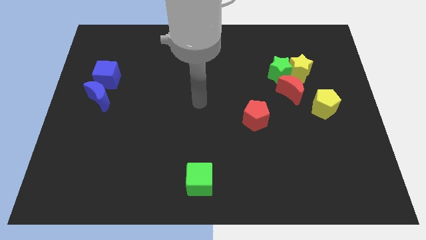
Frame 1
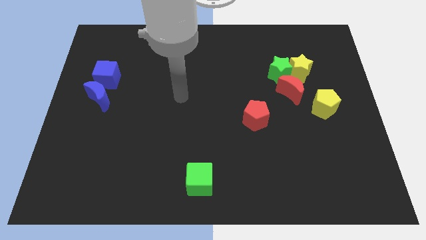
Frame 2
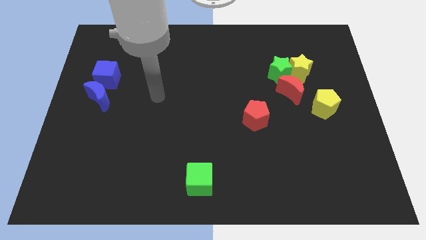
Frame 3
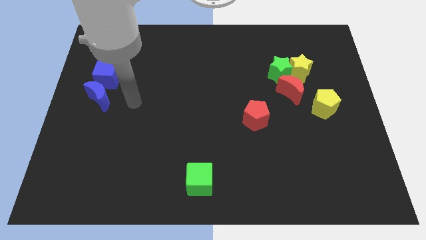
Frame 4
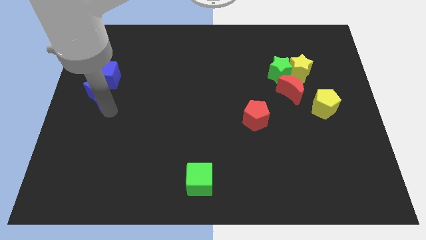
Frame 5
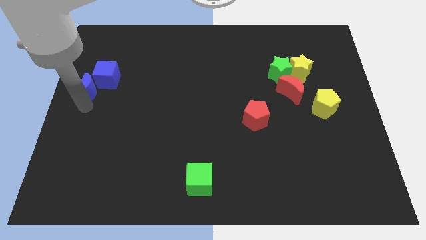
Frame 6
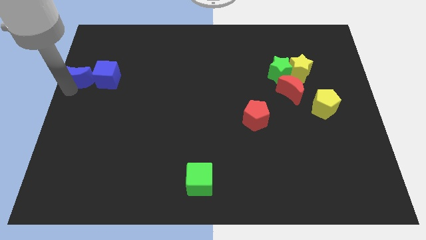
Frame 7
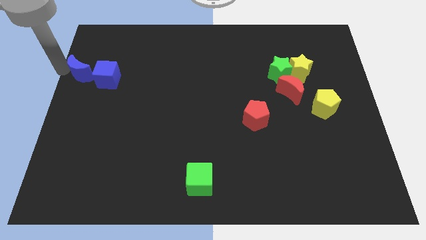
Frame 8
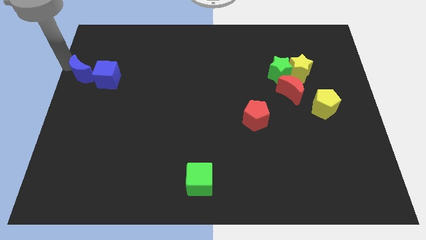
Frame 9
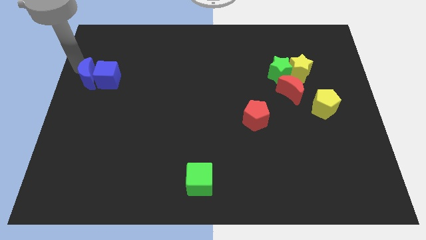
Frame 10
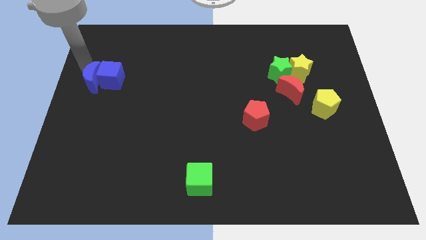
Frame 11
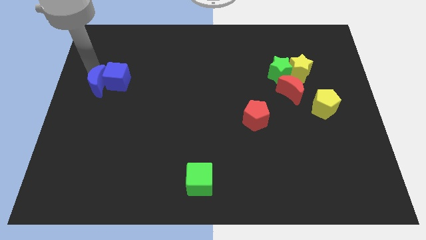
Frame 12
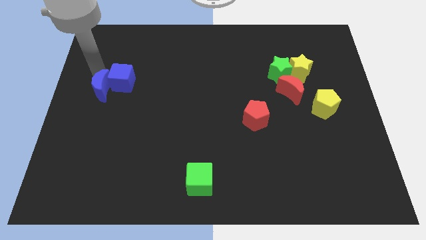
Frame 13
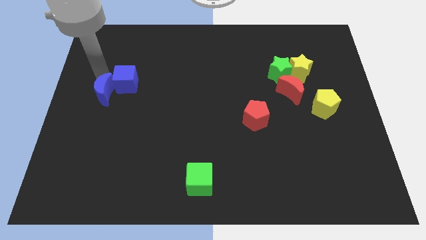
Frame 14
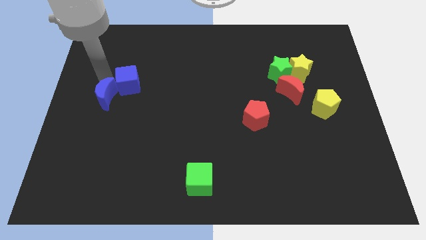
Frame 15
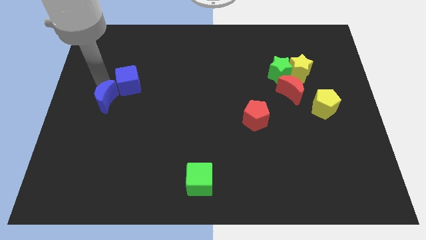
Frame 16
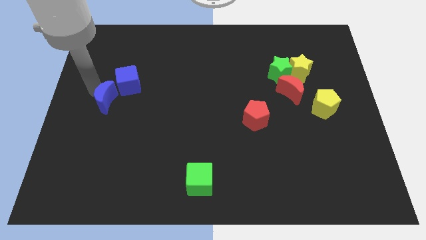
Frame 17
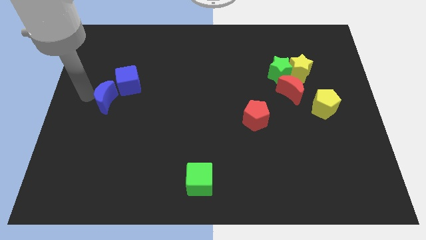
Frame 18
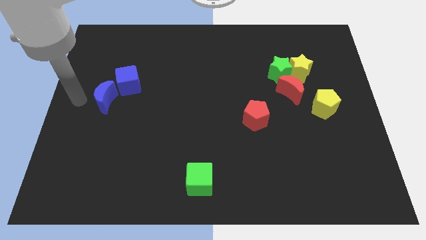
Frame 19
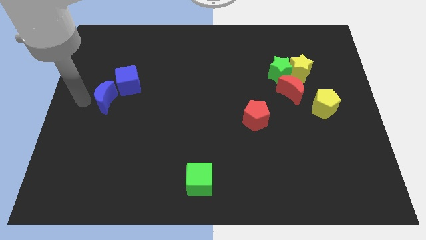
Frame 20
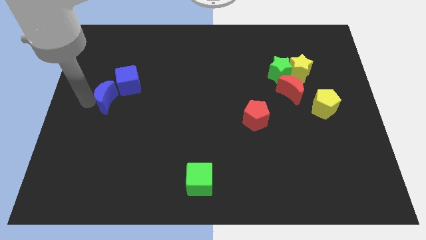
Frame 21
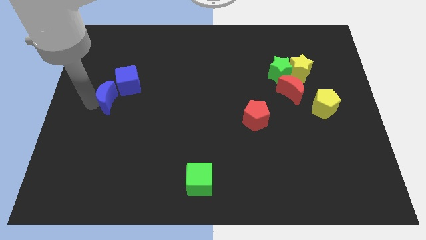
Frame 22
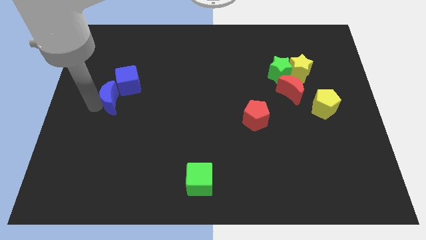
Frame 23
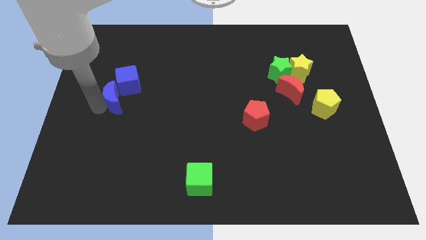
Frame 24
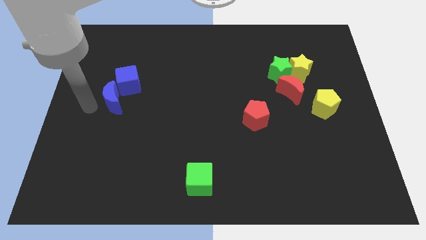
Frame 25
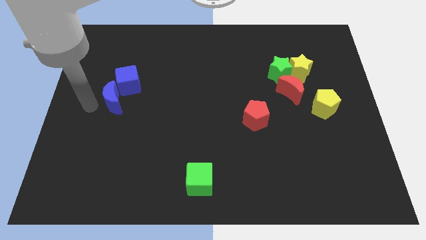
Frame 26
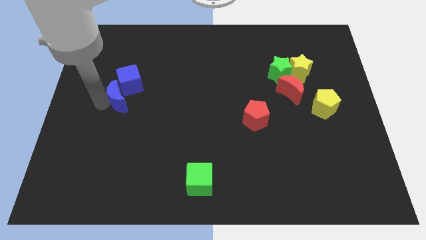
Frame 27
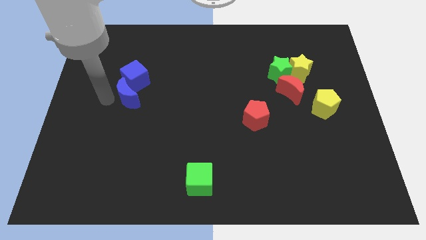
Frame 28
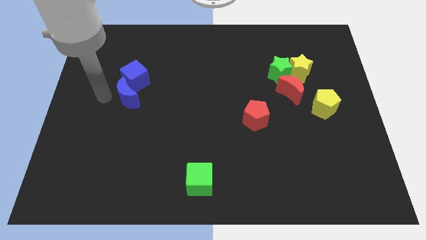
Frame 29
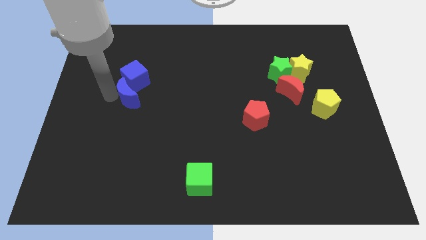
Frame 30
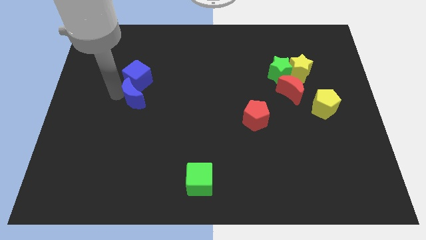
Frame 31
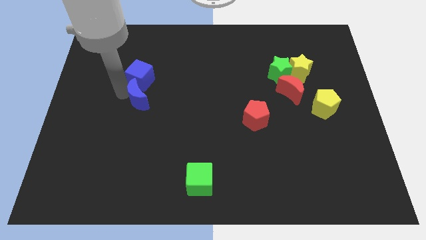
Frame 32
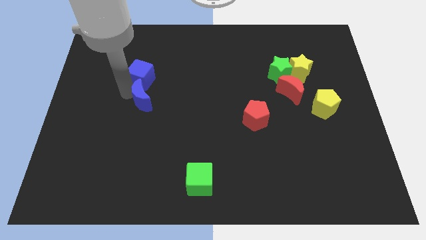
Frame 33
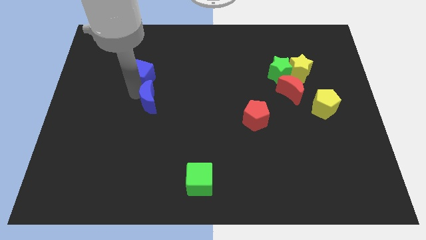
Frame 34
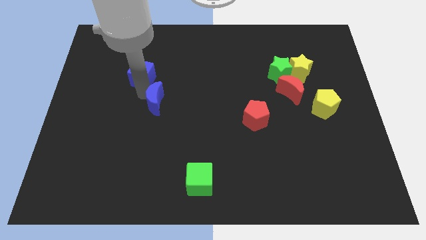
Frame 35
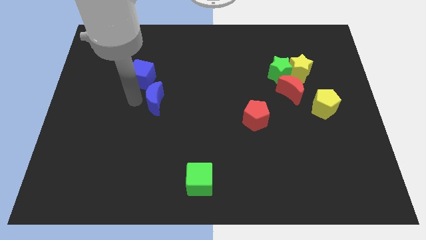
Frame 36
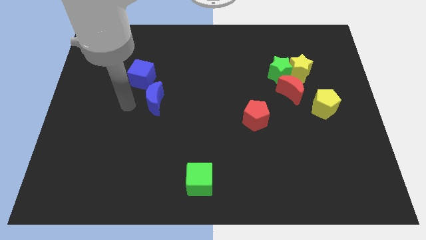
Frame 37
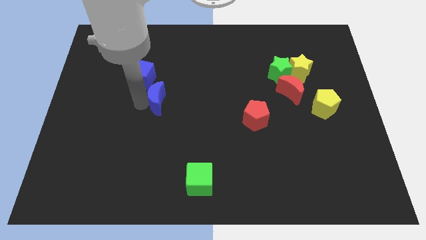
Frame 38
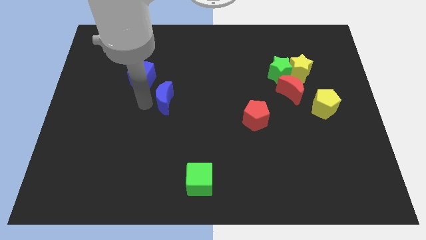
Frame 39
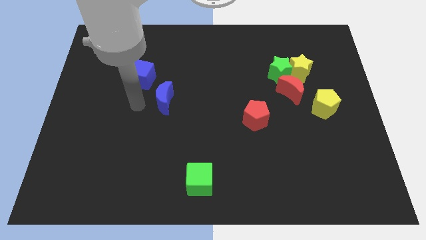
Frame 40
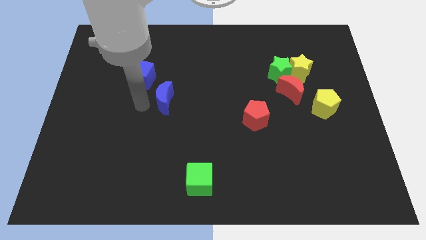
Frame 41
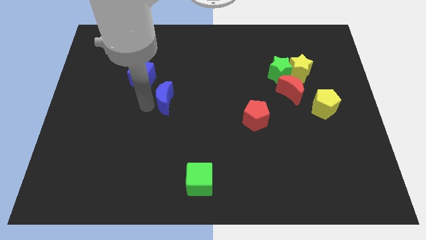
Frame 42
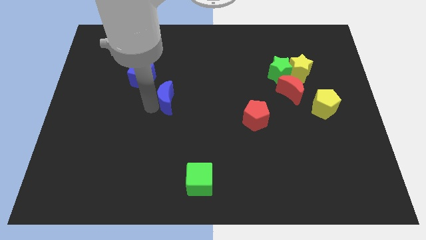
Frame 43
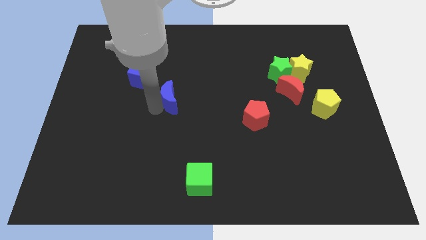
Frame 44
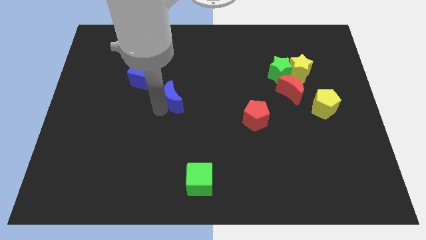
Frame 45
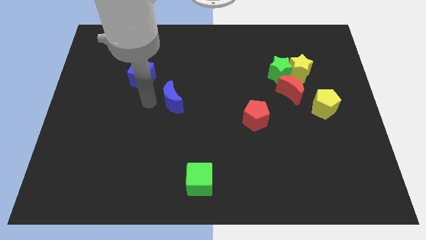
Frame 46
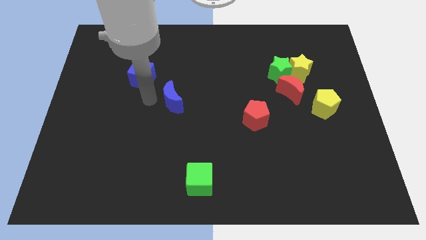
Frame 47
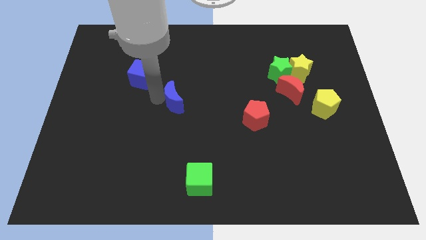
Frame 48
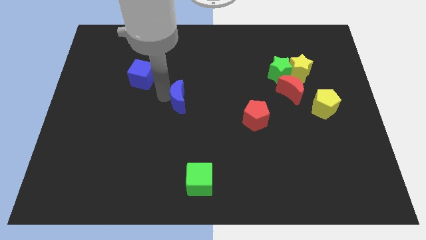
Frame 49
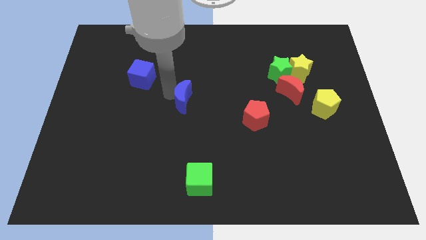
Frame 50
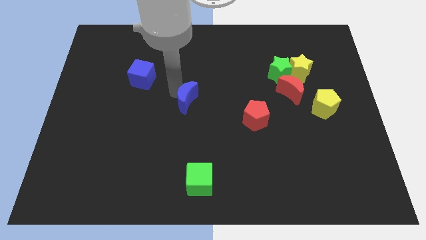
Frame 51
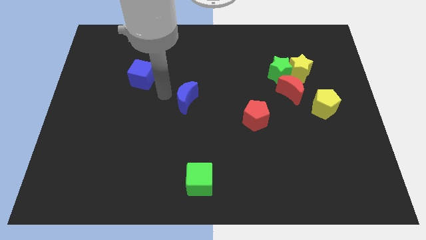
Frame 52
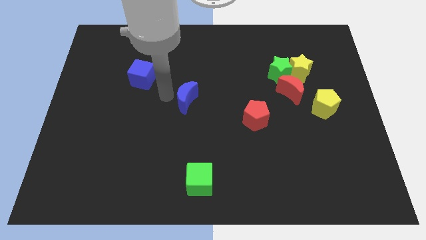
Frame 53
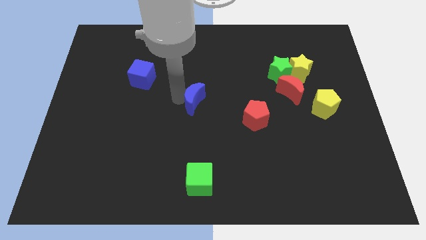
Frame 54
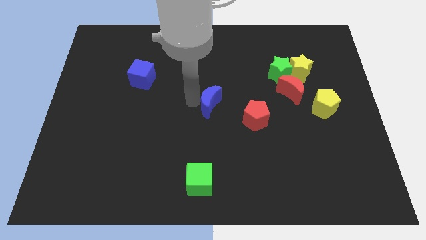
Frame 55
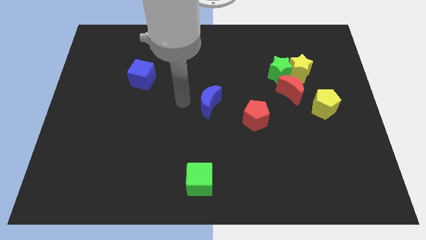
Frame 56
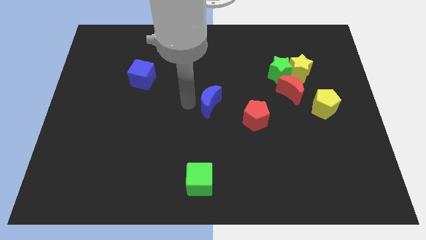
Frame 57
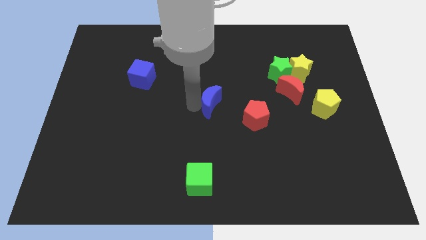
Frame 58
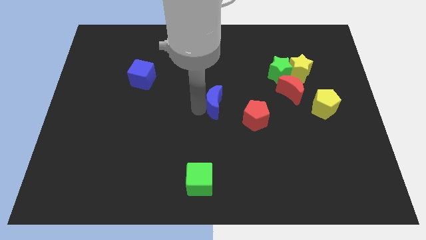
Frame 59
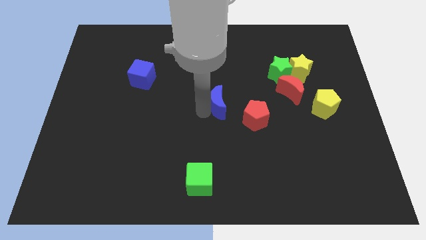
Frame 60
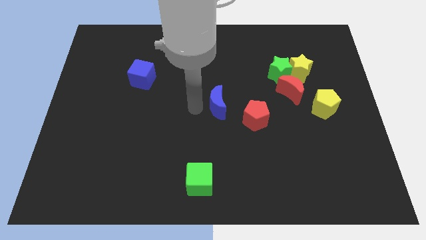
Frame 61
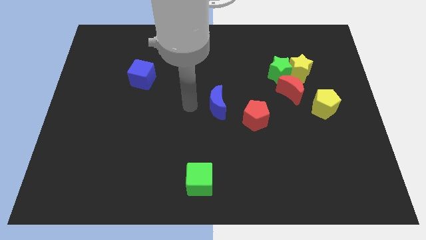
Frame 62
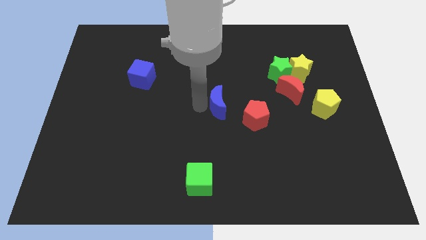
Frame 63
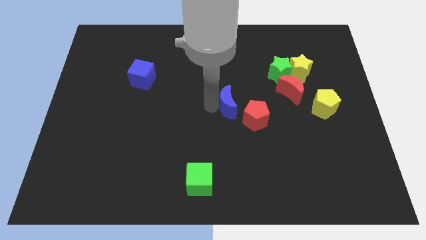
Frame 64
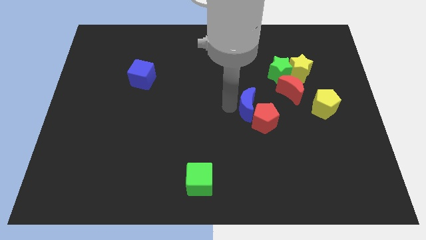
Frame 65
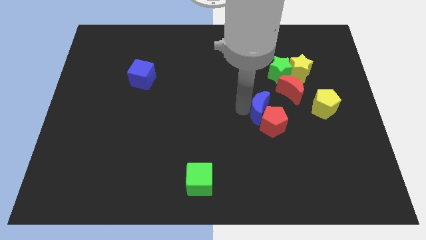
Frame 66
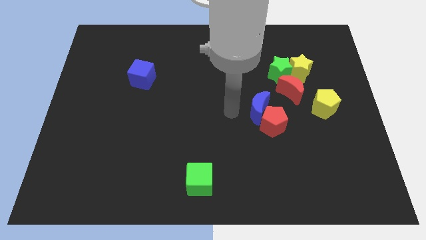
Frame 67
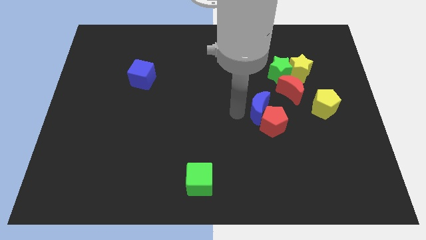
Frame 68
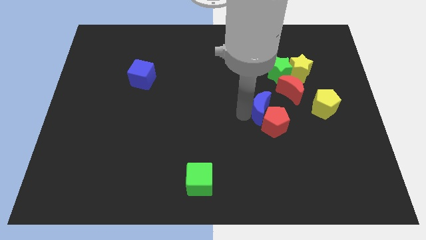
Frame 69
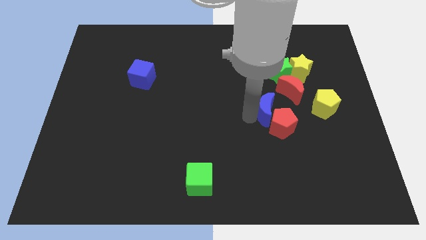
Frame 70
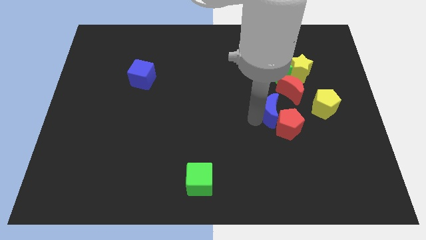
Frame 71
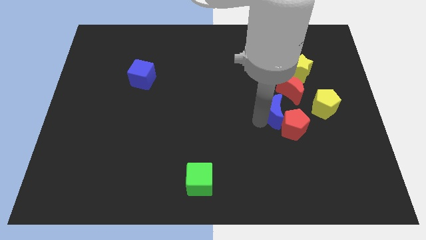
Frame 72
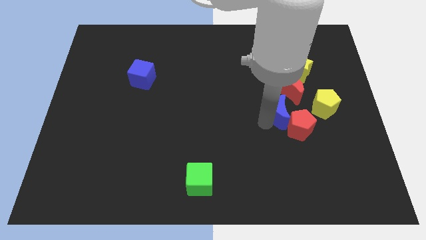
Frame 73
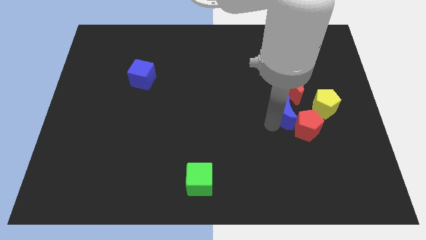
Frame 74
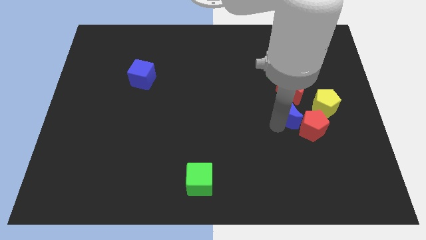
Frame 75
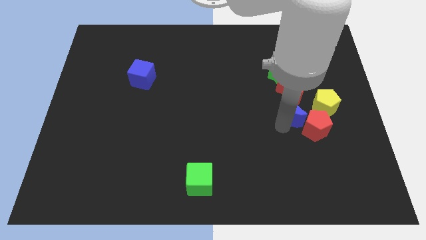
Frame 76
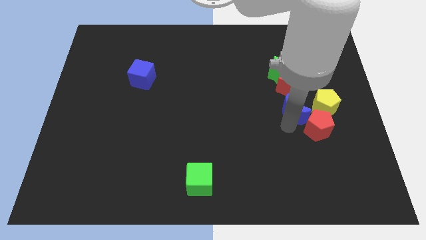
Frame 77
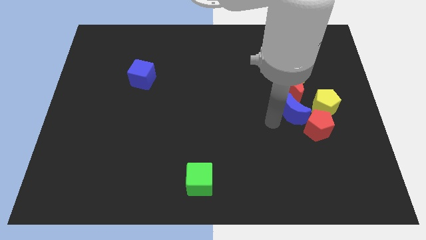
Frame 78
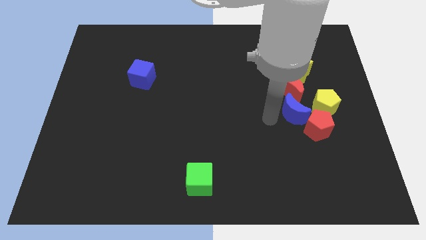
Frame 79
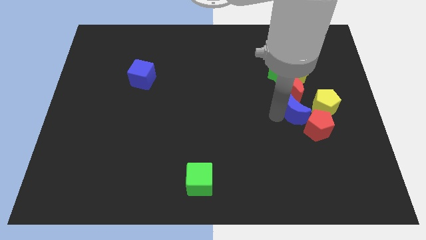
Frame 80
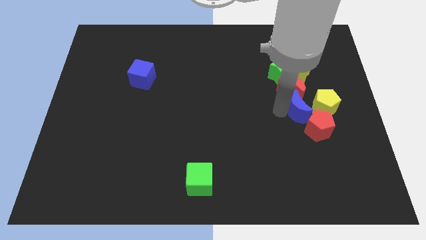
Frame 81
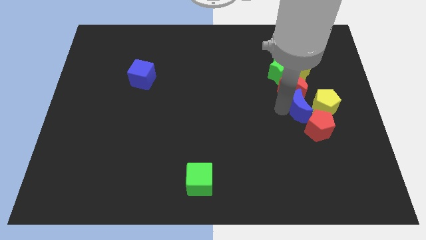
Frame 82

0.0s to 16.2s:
put the blue moon to the yellow pentagon
